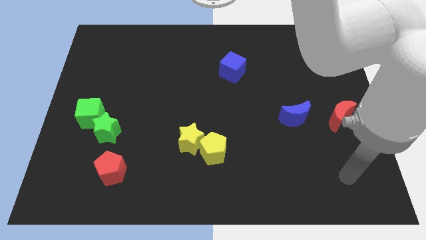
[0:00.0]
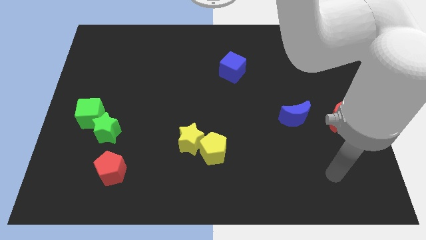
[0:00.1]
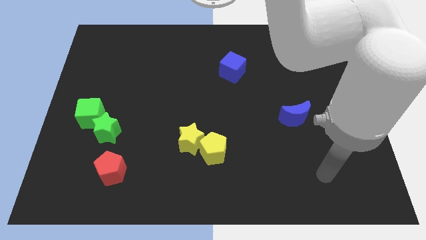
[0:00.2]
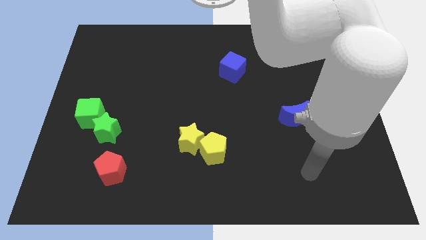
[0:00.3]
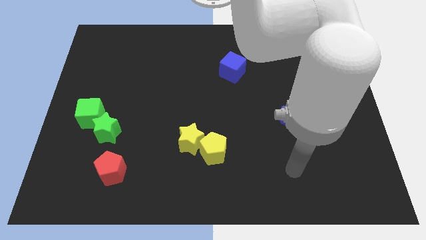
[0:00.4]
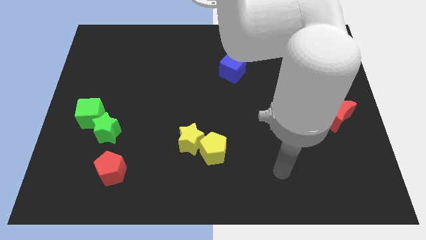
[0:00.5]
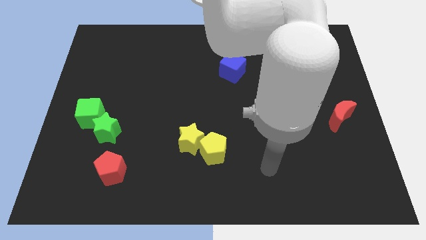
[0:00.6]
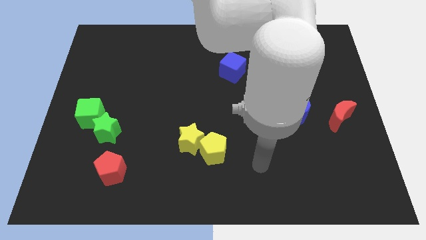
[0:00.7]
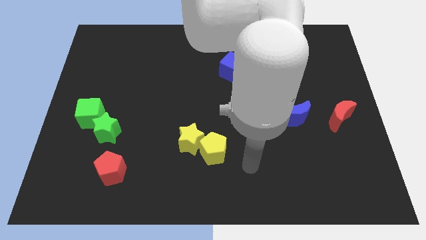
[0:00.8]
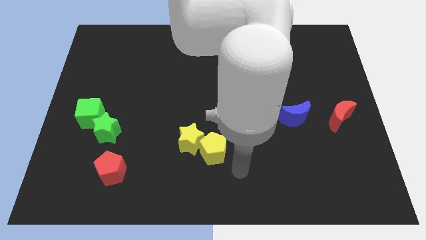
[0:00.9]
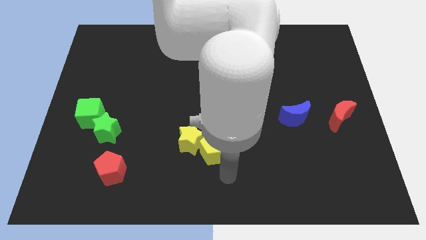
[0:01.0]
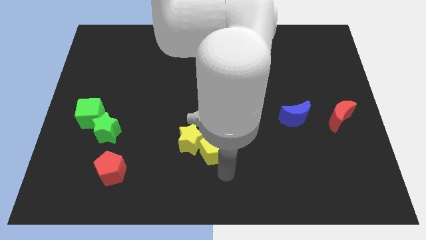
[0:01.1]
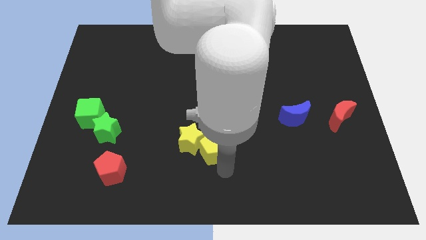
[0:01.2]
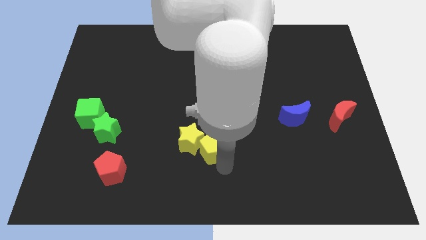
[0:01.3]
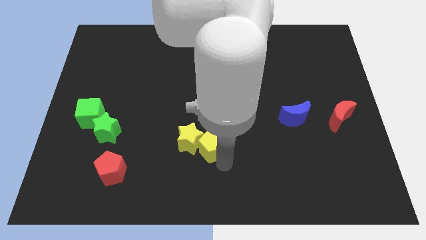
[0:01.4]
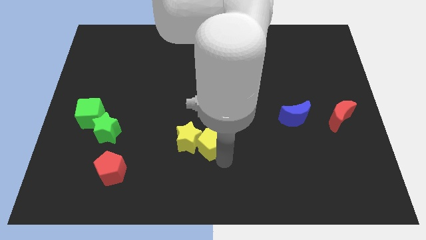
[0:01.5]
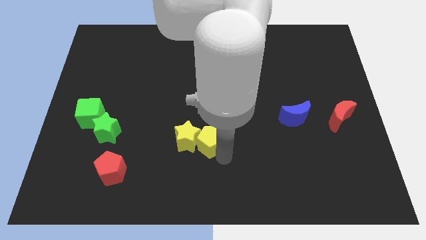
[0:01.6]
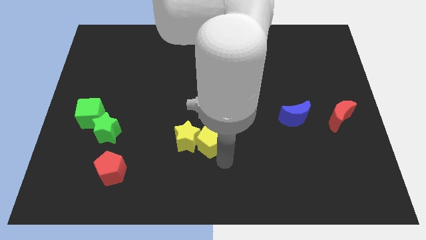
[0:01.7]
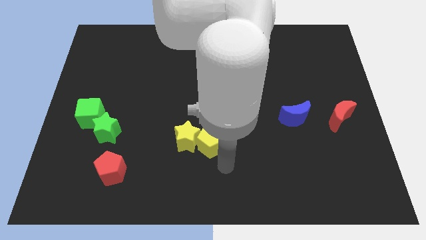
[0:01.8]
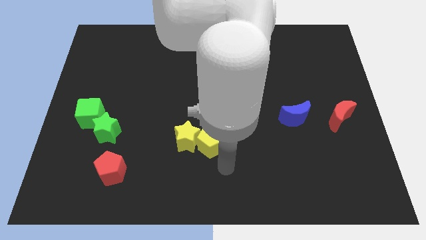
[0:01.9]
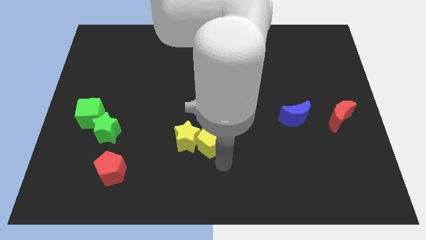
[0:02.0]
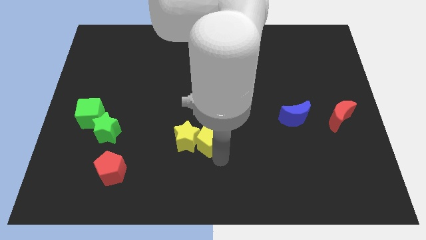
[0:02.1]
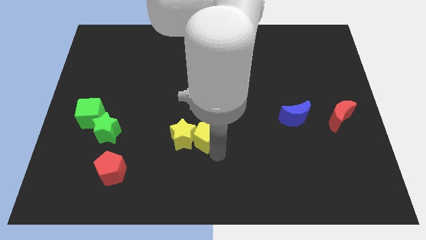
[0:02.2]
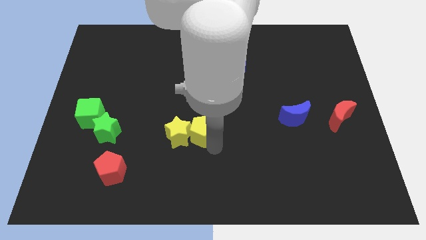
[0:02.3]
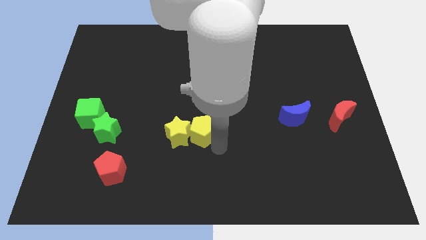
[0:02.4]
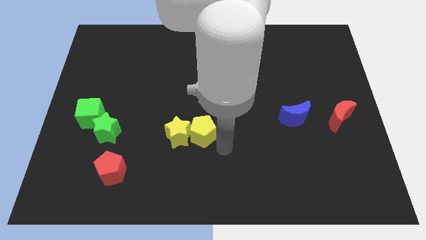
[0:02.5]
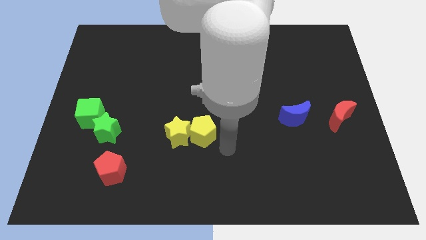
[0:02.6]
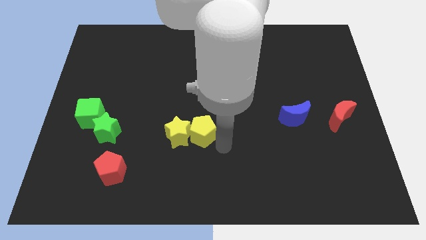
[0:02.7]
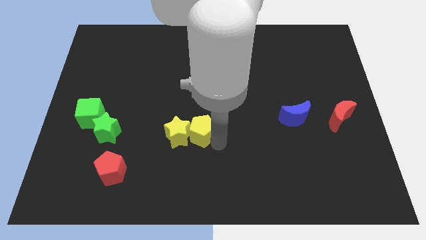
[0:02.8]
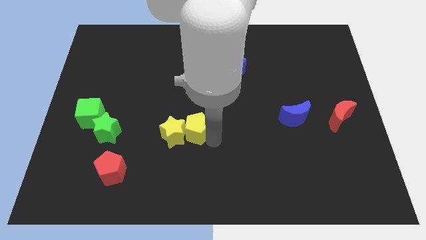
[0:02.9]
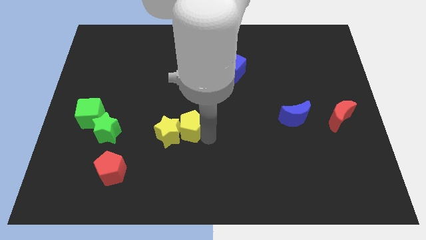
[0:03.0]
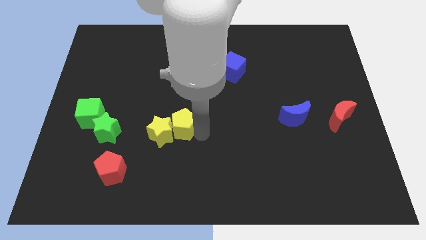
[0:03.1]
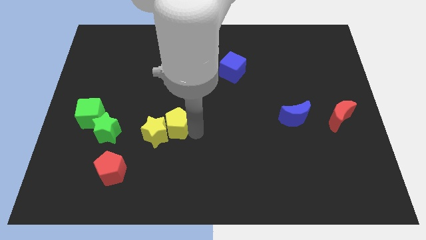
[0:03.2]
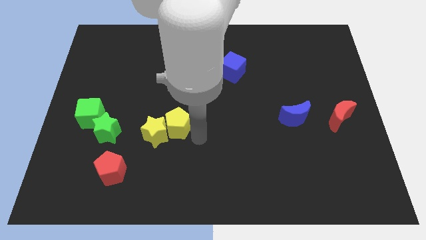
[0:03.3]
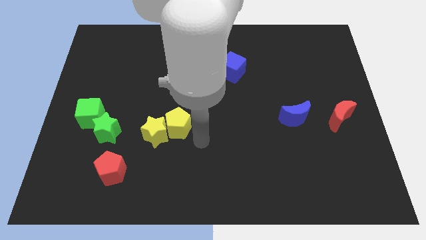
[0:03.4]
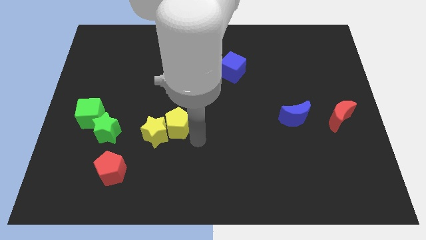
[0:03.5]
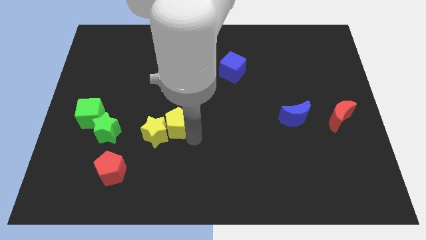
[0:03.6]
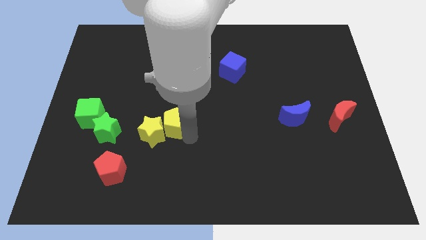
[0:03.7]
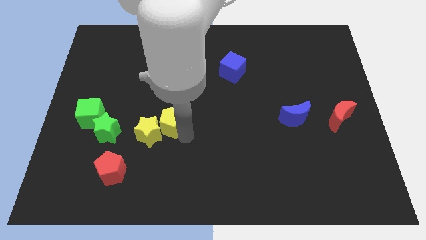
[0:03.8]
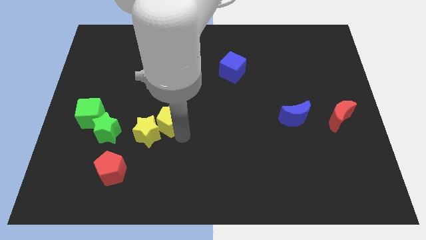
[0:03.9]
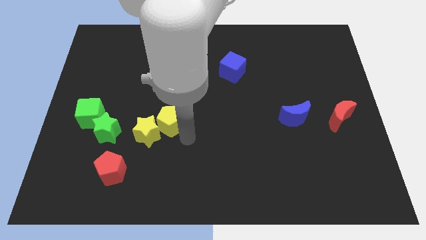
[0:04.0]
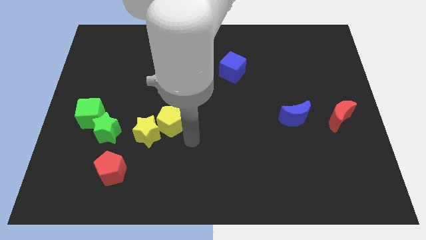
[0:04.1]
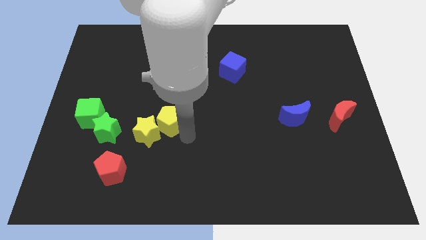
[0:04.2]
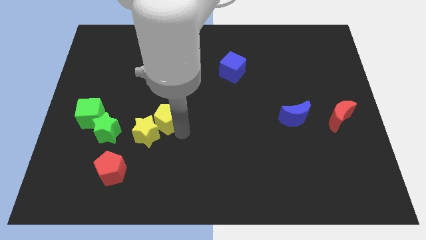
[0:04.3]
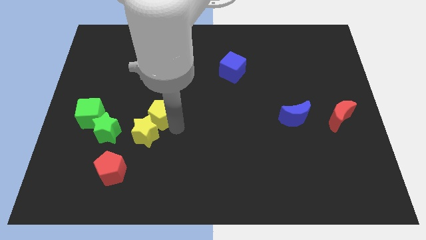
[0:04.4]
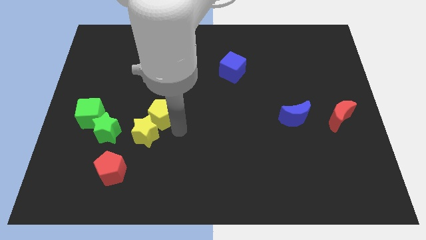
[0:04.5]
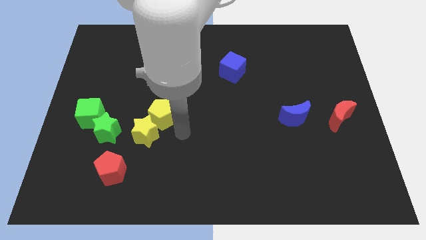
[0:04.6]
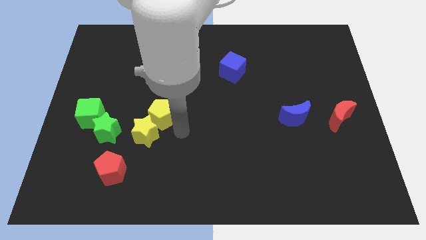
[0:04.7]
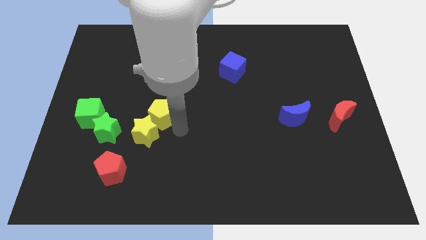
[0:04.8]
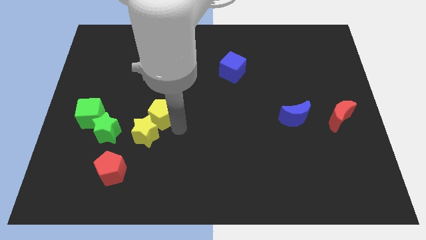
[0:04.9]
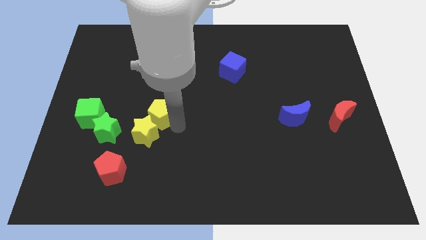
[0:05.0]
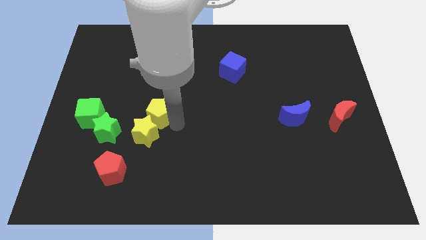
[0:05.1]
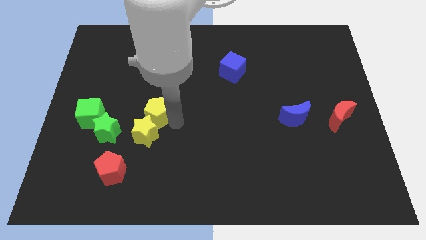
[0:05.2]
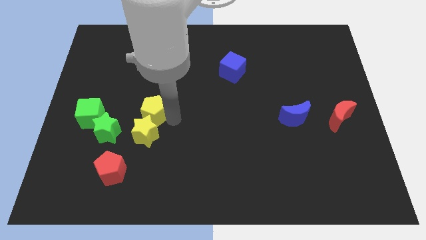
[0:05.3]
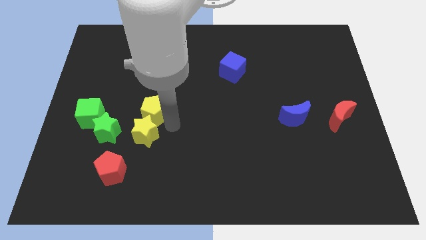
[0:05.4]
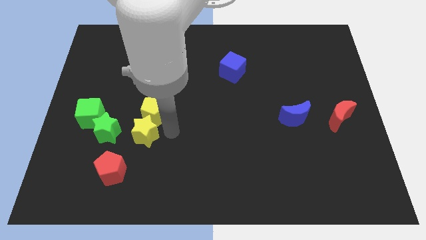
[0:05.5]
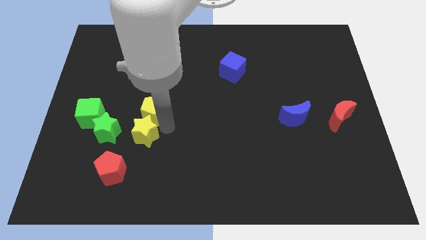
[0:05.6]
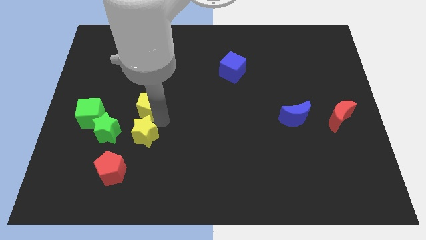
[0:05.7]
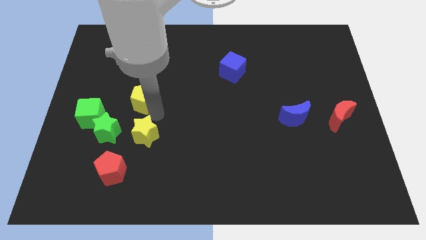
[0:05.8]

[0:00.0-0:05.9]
move the yellow pentagon upwards and left diagonally

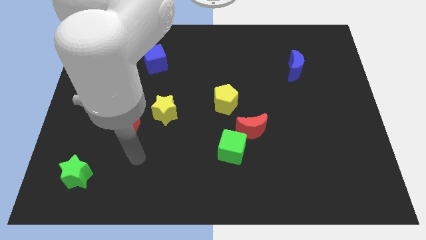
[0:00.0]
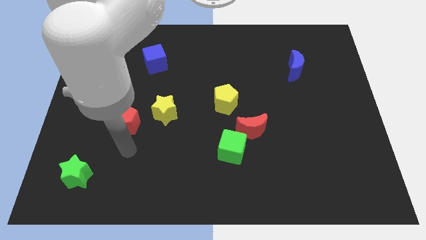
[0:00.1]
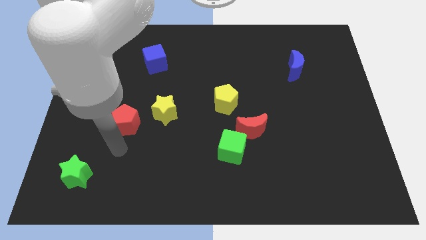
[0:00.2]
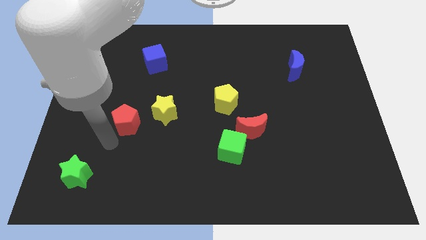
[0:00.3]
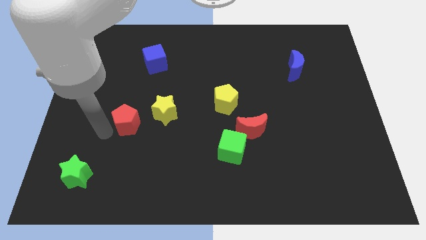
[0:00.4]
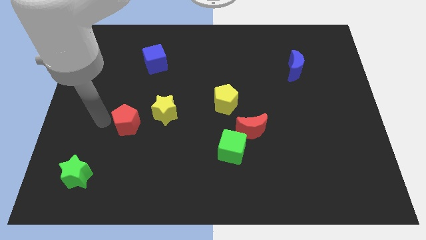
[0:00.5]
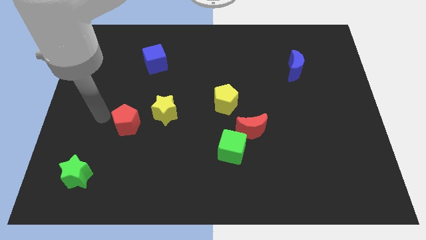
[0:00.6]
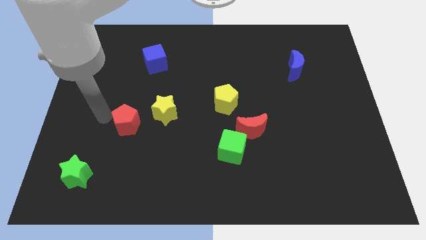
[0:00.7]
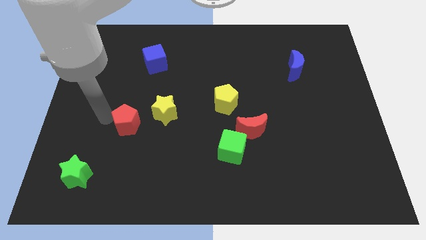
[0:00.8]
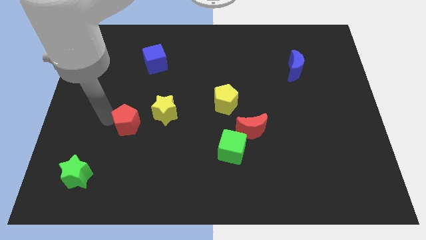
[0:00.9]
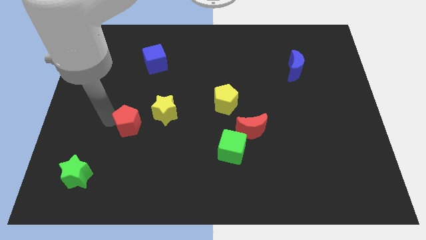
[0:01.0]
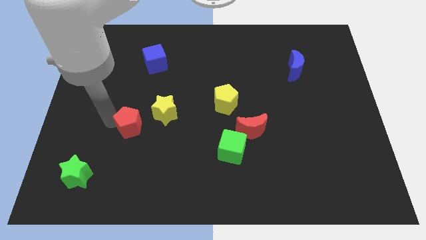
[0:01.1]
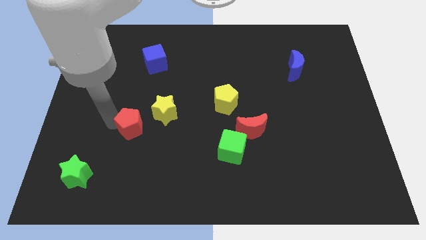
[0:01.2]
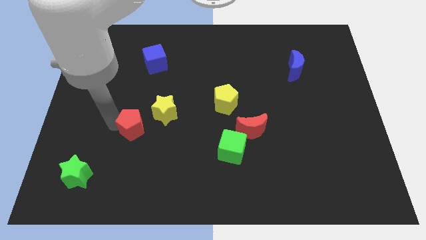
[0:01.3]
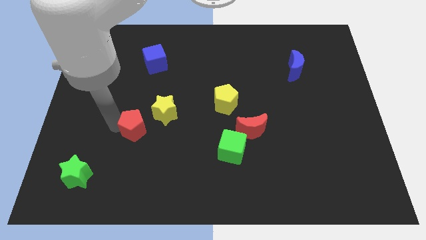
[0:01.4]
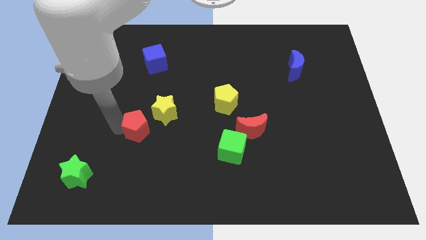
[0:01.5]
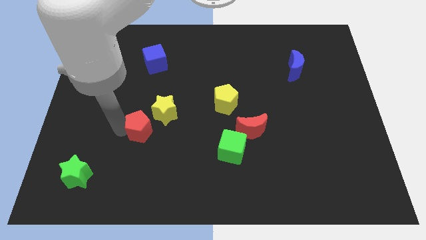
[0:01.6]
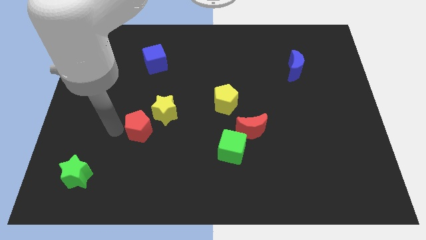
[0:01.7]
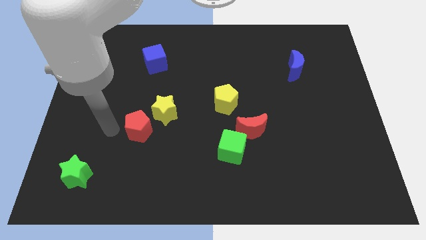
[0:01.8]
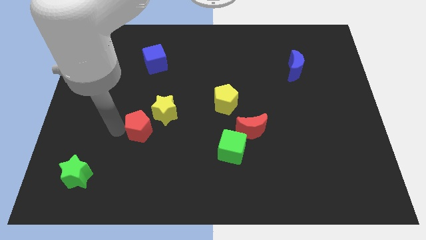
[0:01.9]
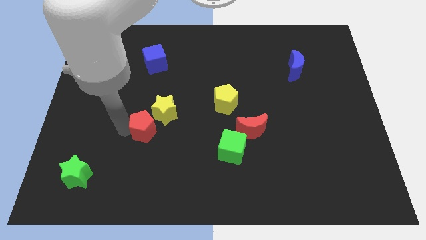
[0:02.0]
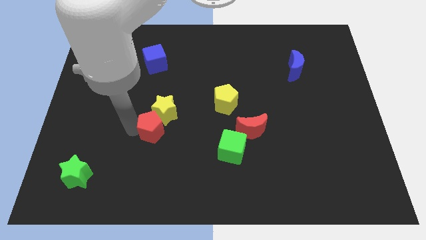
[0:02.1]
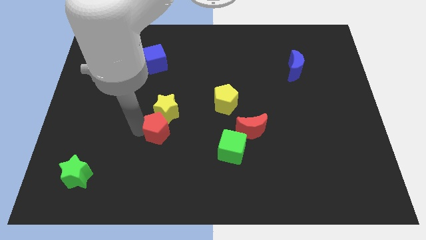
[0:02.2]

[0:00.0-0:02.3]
slightly move the red pentagon right

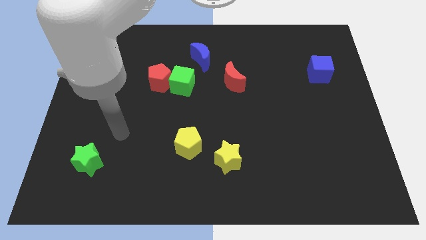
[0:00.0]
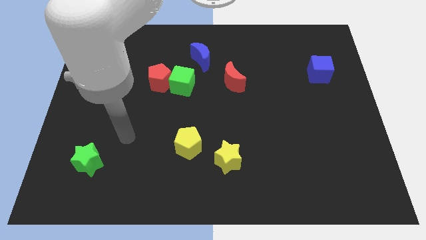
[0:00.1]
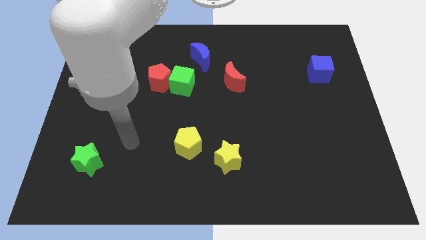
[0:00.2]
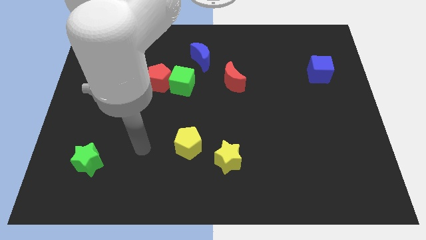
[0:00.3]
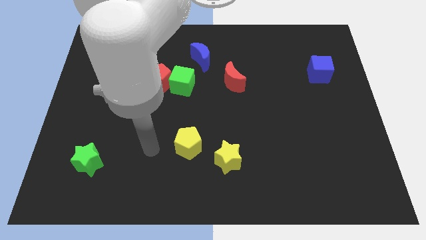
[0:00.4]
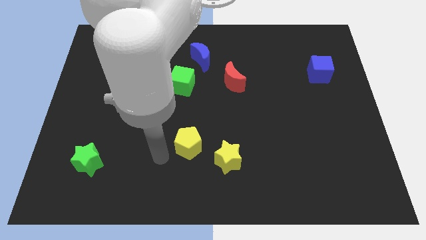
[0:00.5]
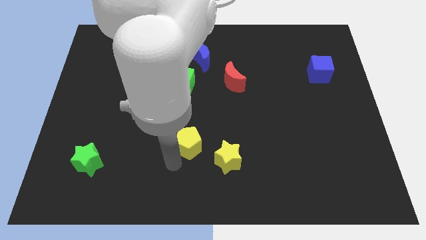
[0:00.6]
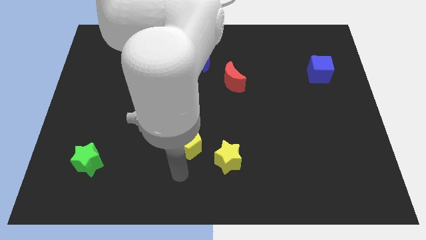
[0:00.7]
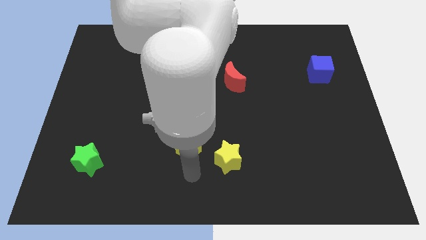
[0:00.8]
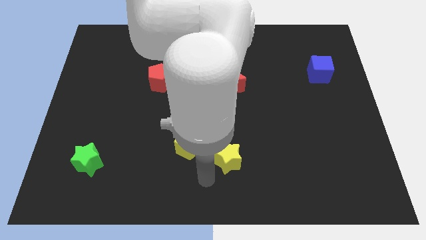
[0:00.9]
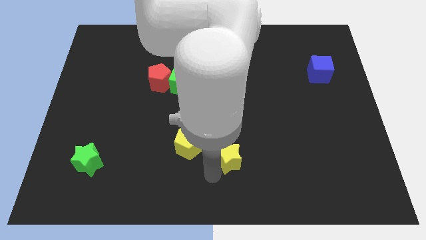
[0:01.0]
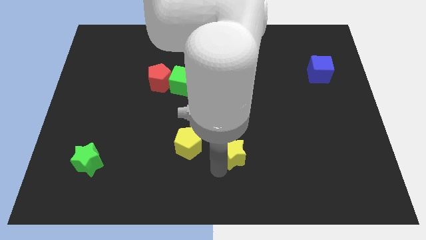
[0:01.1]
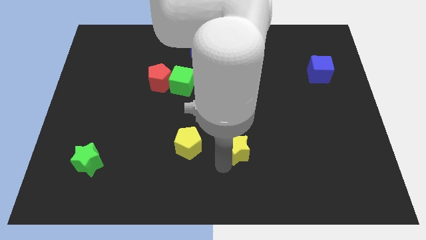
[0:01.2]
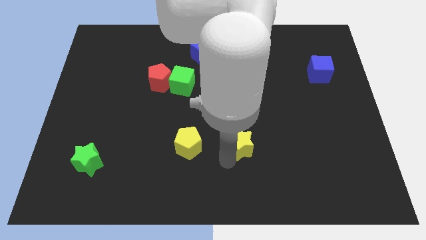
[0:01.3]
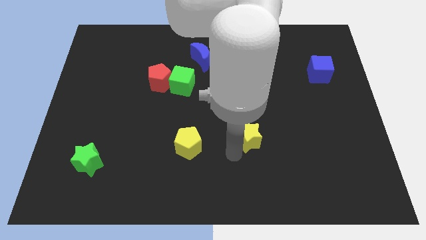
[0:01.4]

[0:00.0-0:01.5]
slightly push the yellow star diagonally upwards and right
